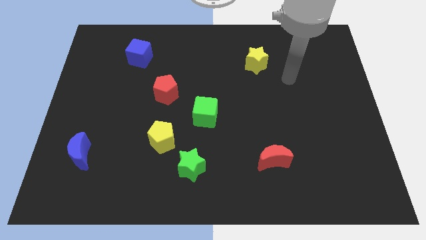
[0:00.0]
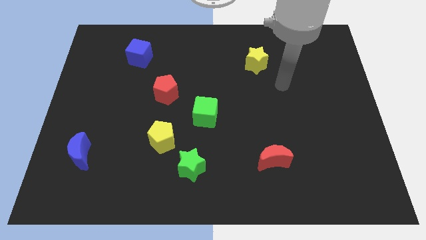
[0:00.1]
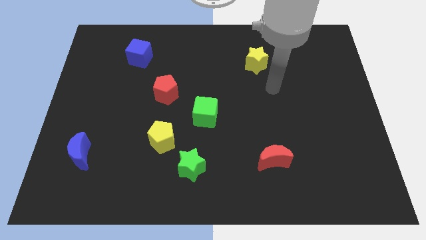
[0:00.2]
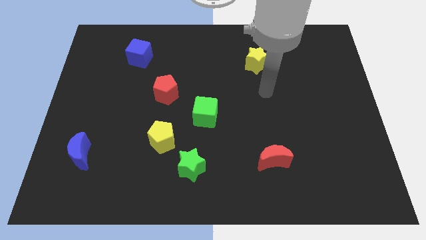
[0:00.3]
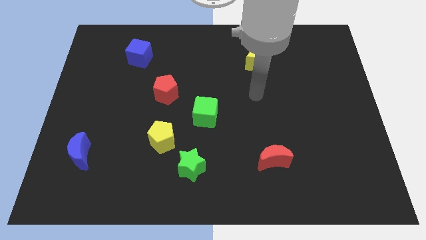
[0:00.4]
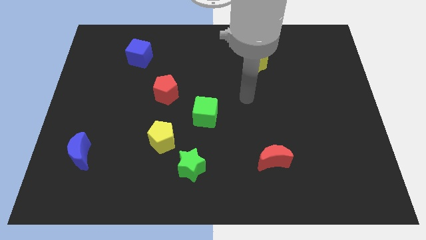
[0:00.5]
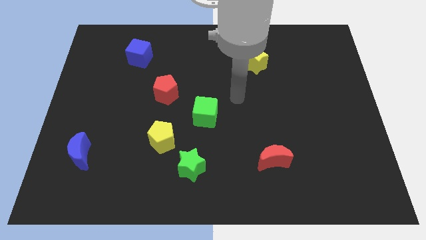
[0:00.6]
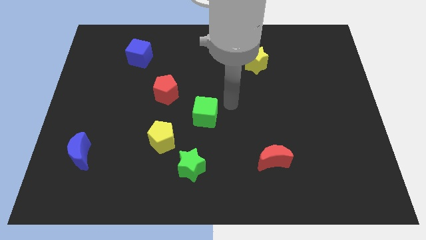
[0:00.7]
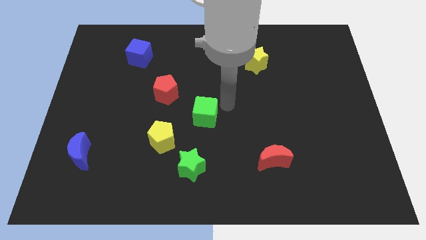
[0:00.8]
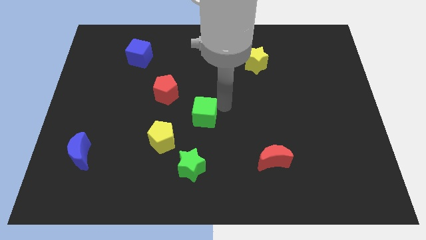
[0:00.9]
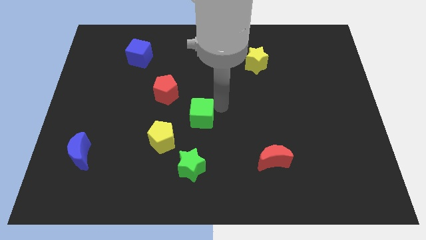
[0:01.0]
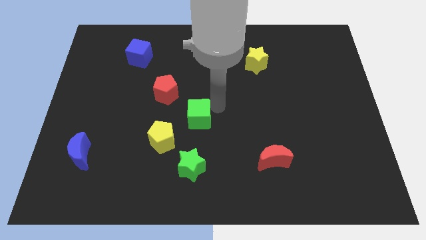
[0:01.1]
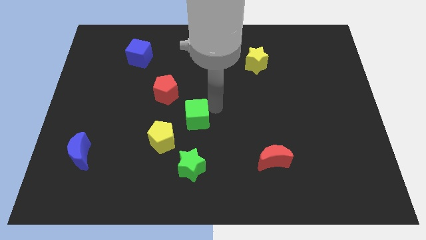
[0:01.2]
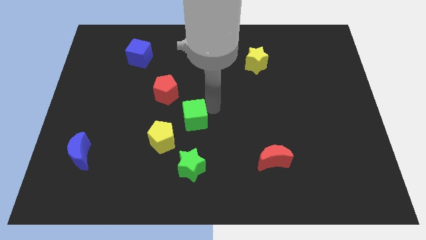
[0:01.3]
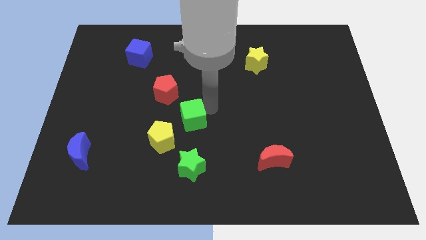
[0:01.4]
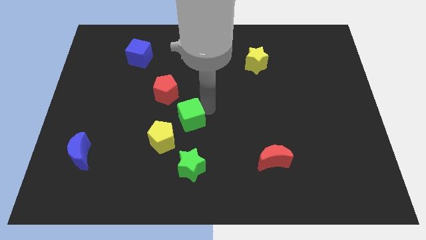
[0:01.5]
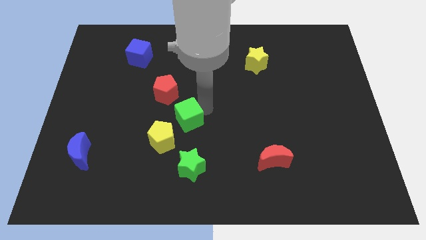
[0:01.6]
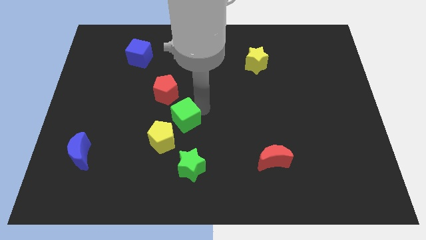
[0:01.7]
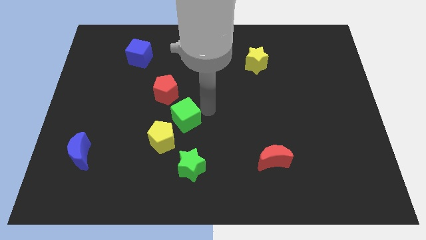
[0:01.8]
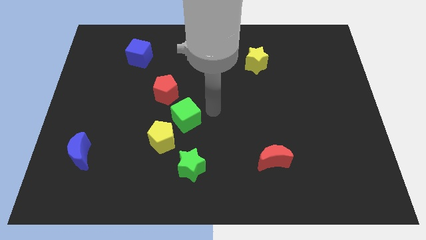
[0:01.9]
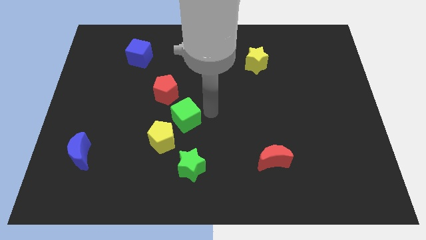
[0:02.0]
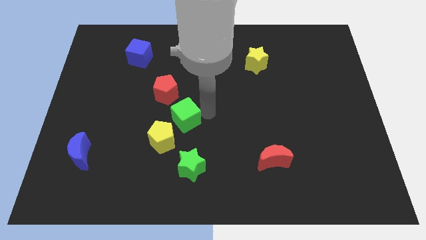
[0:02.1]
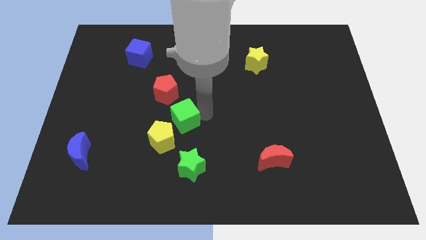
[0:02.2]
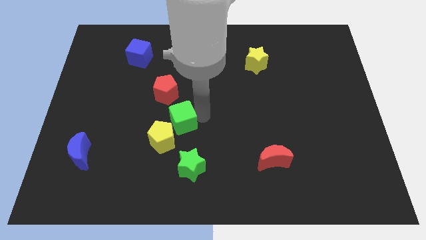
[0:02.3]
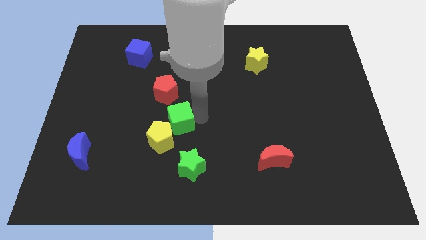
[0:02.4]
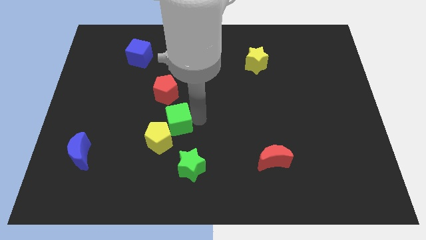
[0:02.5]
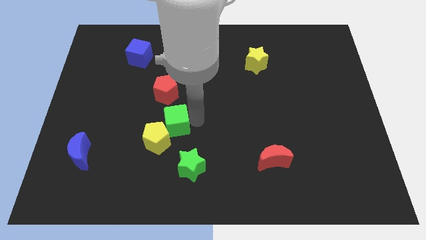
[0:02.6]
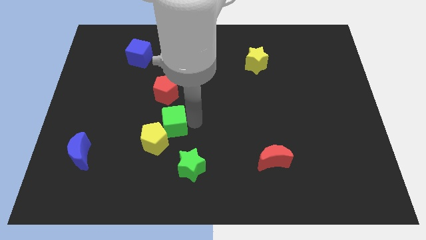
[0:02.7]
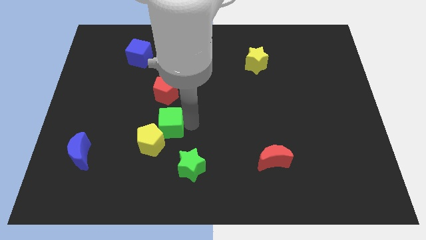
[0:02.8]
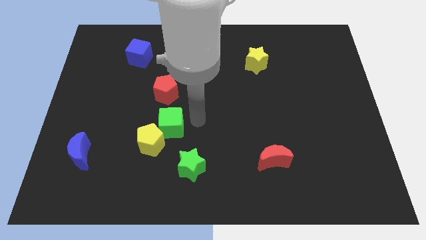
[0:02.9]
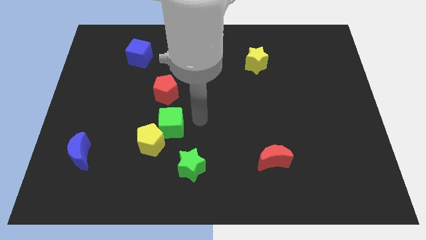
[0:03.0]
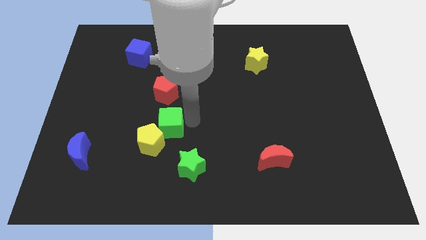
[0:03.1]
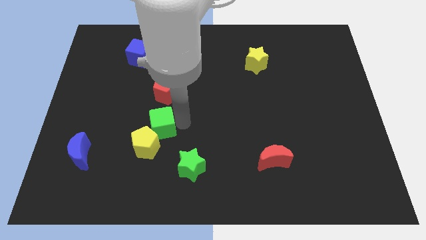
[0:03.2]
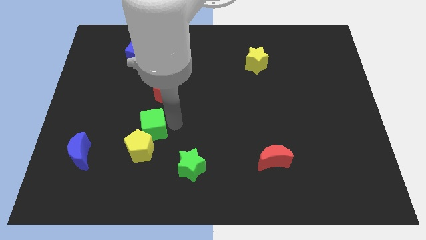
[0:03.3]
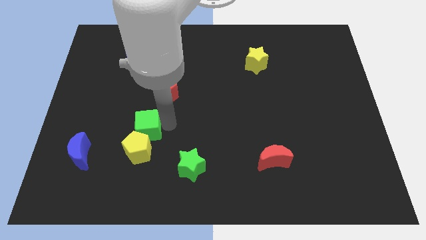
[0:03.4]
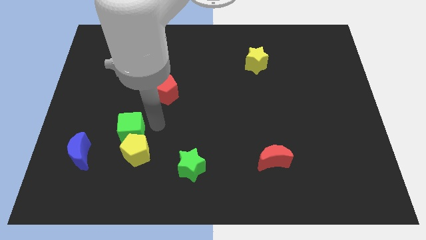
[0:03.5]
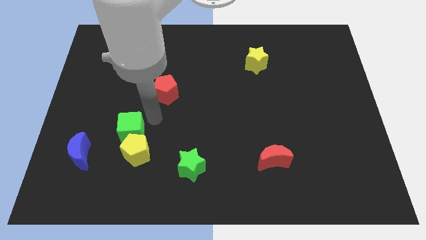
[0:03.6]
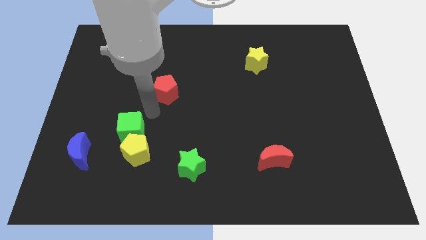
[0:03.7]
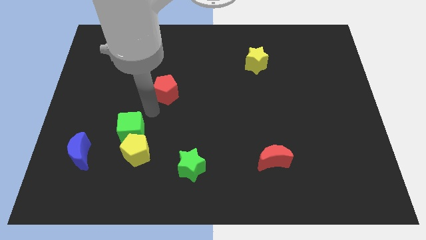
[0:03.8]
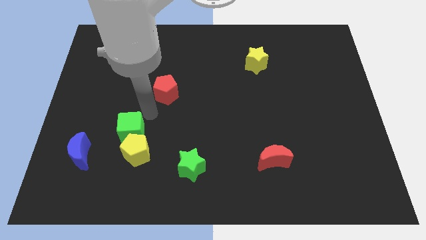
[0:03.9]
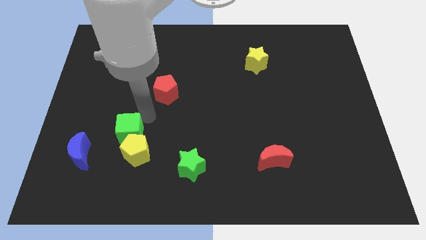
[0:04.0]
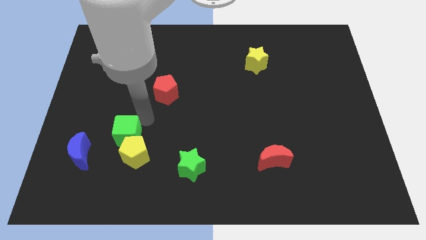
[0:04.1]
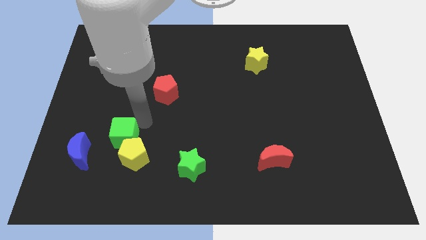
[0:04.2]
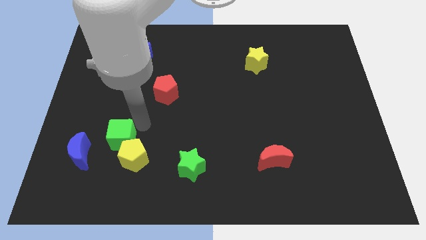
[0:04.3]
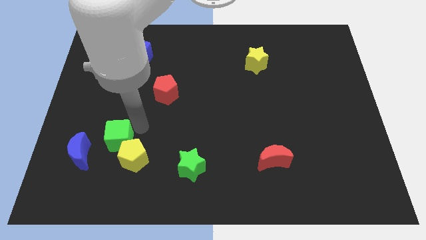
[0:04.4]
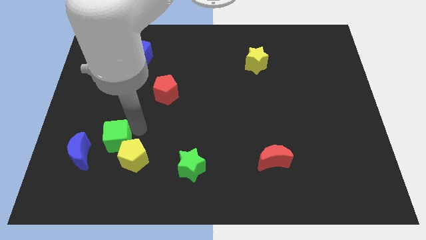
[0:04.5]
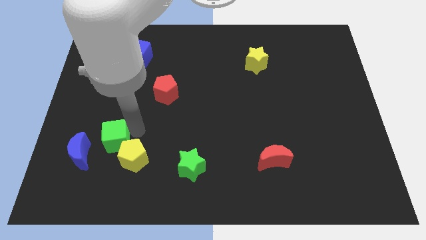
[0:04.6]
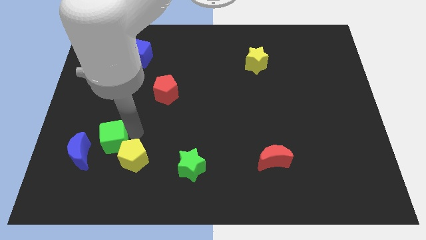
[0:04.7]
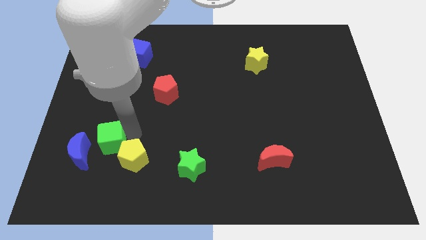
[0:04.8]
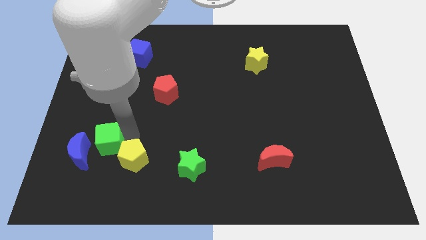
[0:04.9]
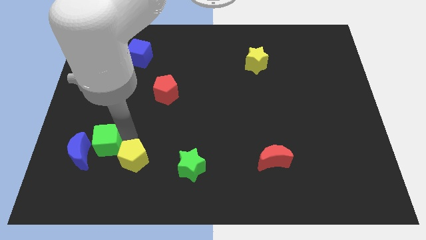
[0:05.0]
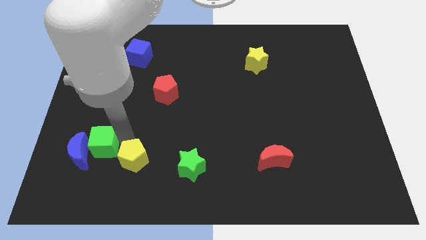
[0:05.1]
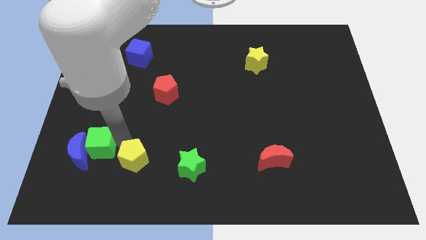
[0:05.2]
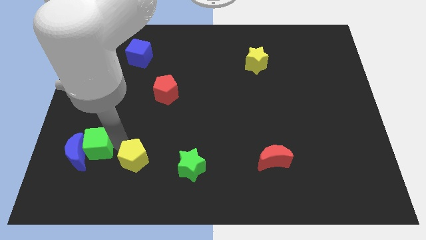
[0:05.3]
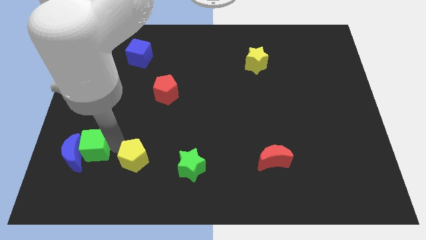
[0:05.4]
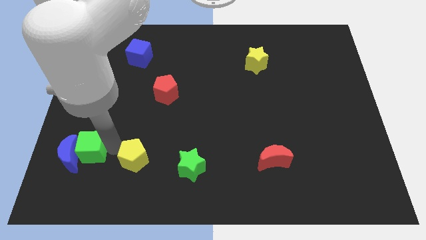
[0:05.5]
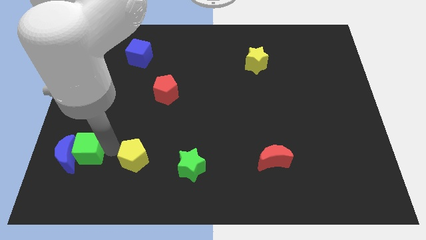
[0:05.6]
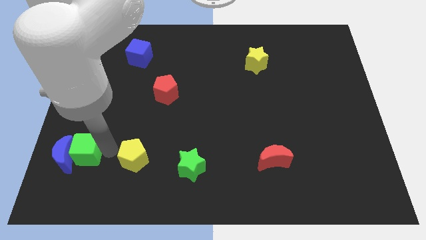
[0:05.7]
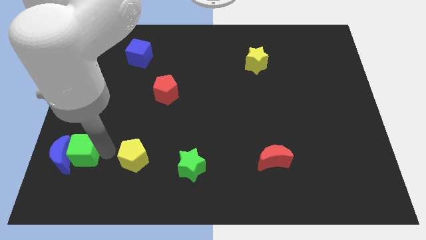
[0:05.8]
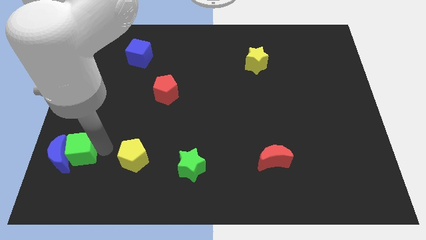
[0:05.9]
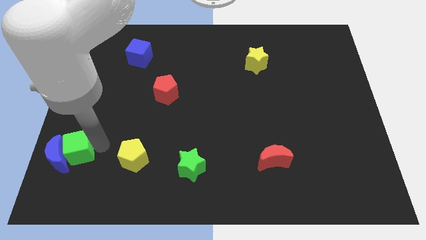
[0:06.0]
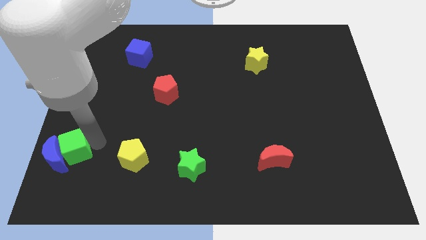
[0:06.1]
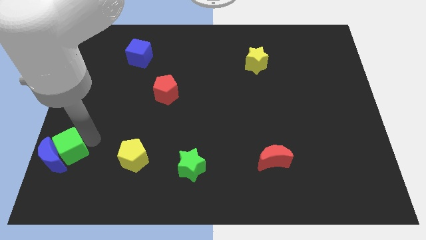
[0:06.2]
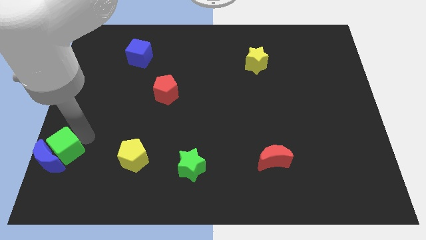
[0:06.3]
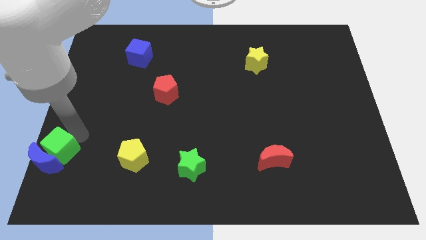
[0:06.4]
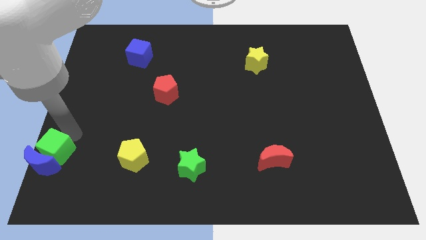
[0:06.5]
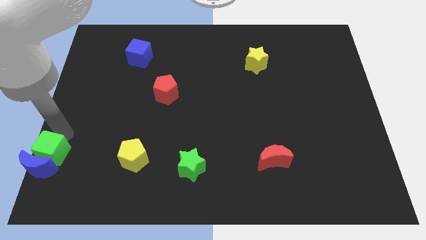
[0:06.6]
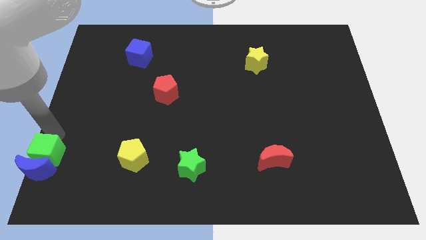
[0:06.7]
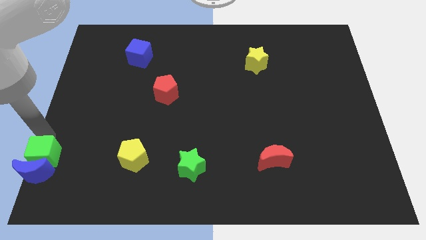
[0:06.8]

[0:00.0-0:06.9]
slide the green cube to the bottom left of the board

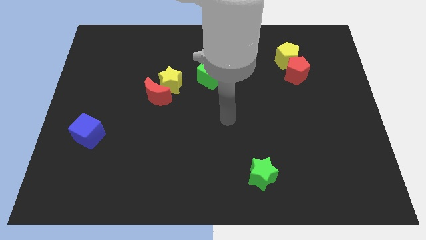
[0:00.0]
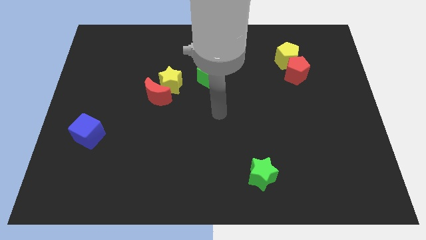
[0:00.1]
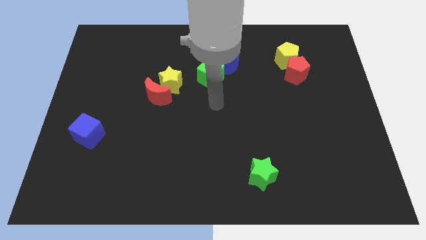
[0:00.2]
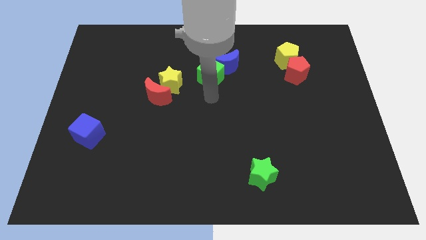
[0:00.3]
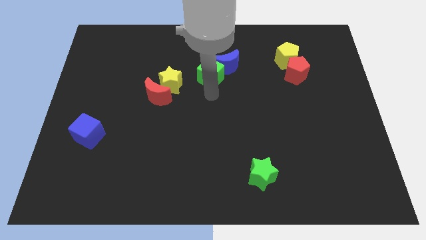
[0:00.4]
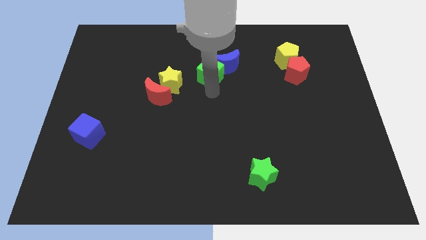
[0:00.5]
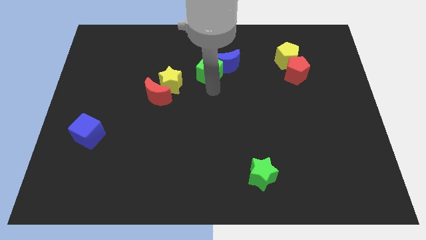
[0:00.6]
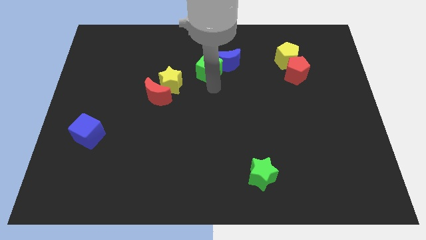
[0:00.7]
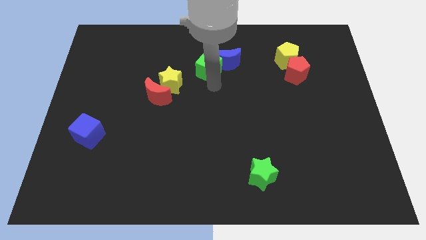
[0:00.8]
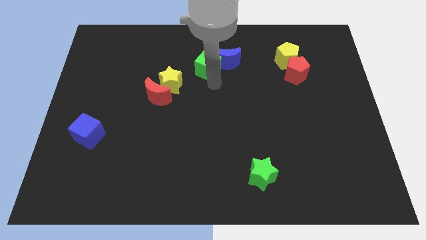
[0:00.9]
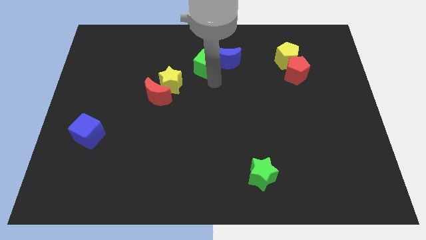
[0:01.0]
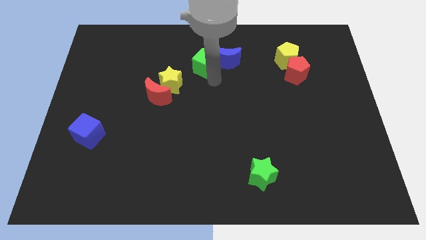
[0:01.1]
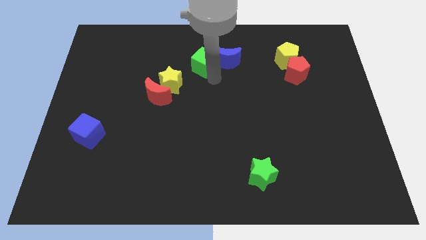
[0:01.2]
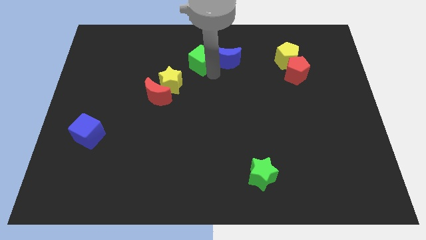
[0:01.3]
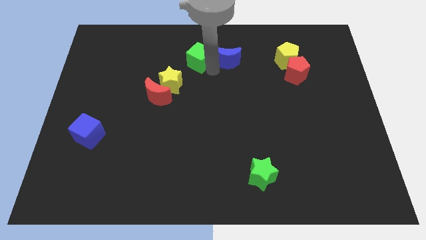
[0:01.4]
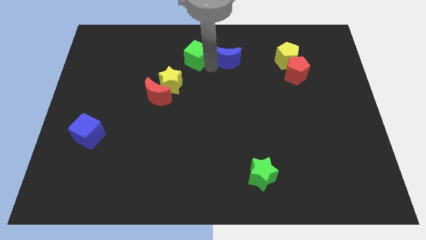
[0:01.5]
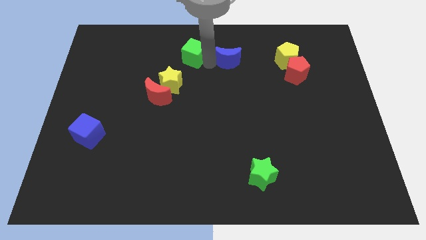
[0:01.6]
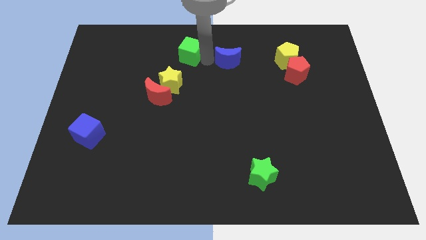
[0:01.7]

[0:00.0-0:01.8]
push the green cube to the towards your base
